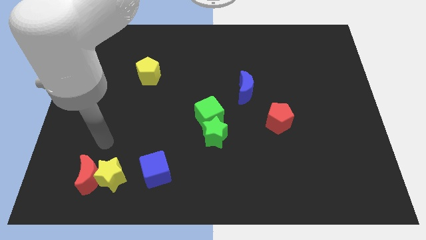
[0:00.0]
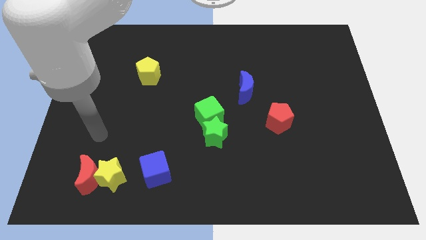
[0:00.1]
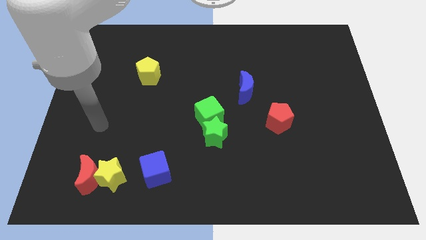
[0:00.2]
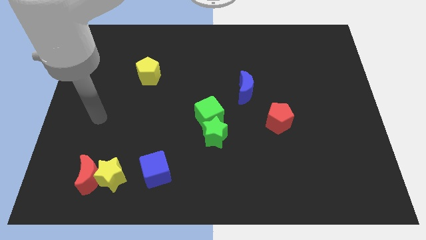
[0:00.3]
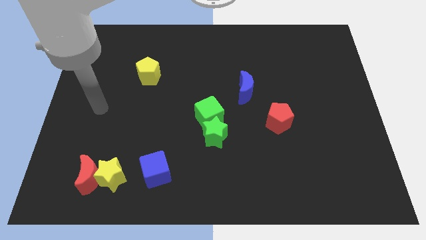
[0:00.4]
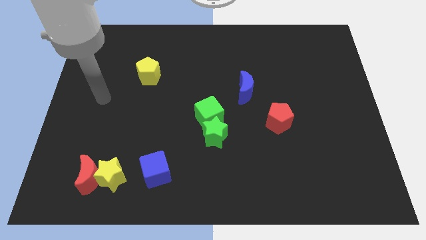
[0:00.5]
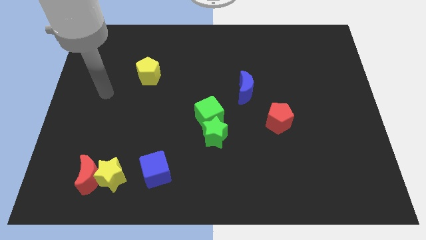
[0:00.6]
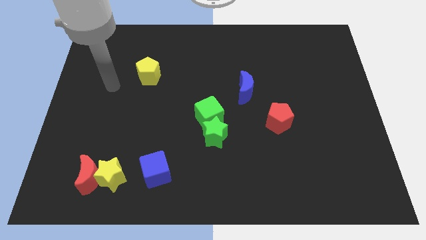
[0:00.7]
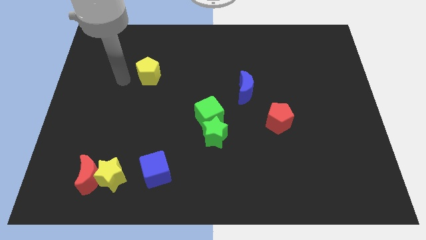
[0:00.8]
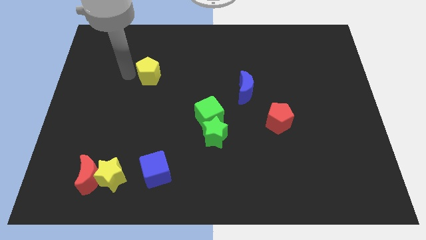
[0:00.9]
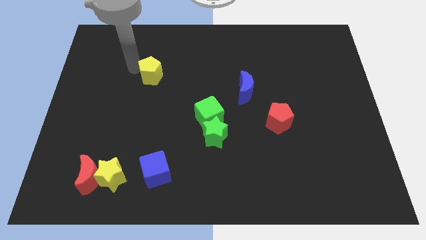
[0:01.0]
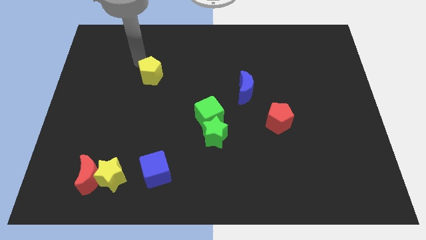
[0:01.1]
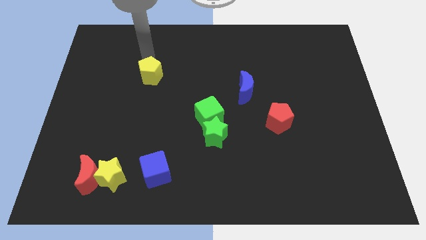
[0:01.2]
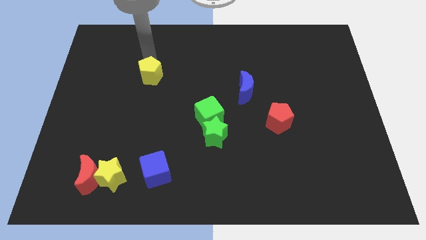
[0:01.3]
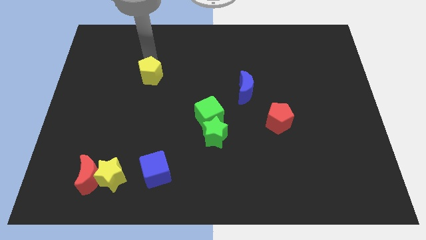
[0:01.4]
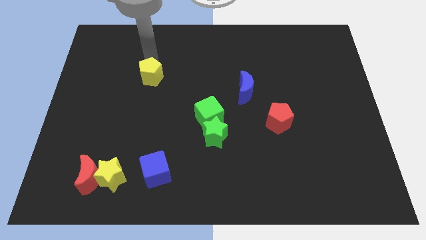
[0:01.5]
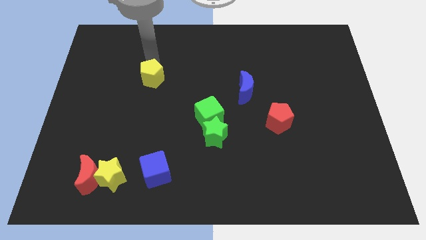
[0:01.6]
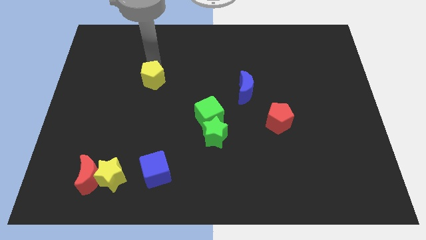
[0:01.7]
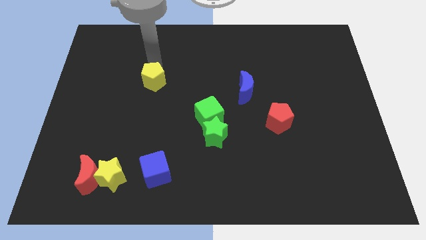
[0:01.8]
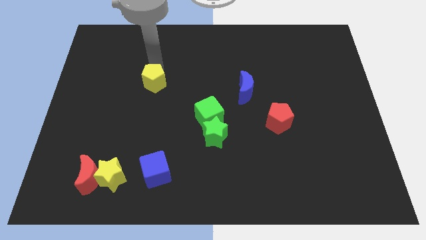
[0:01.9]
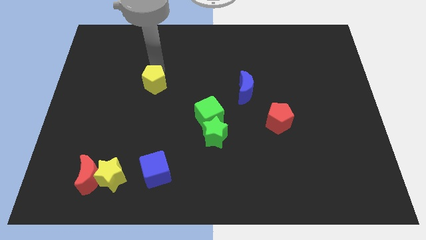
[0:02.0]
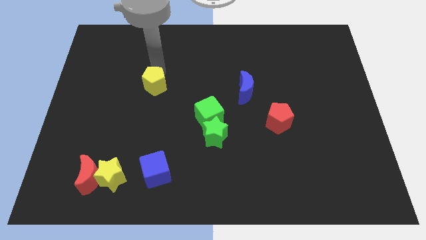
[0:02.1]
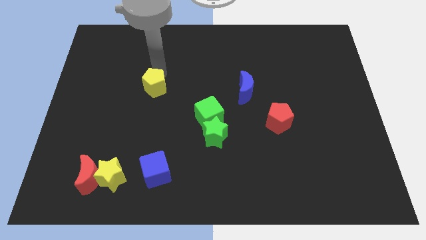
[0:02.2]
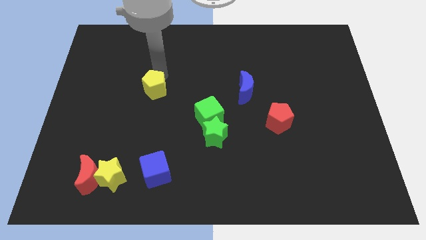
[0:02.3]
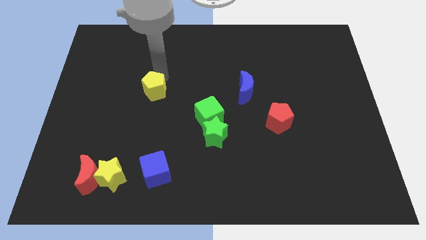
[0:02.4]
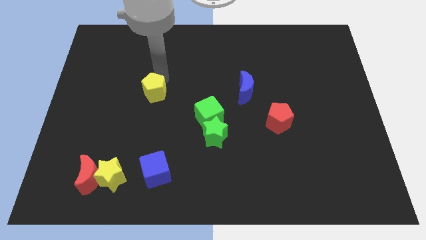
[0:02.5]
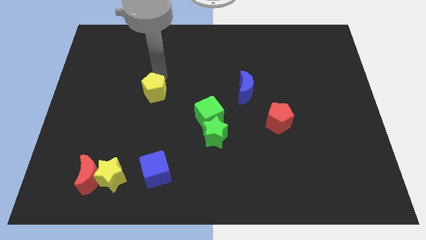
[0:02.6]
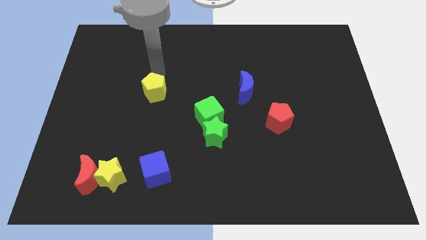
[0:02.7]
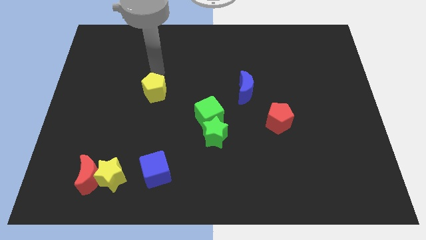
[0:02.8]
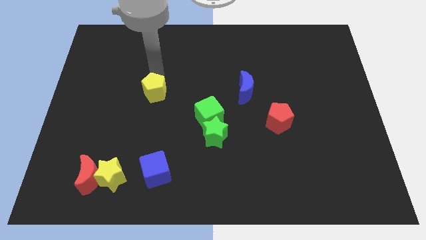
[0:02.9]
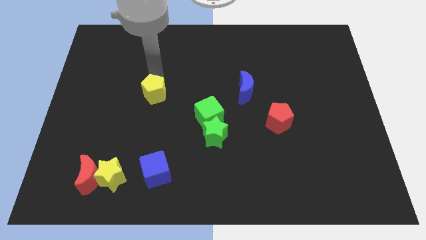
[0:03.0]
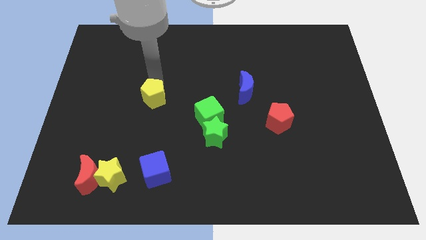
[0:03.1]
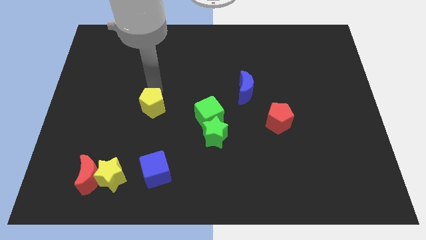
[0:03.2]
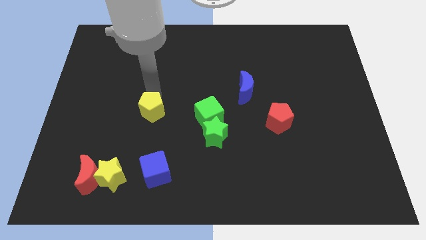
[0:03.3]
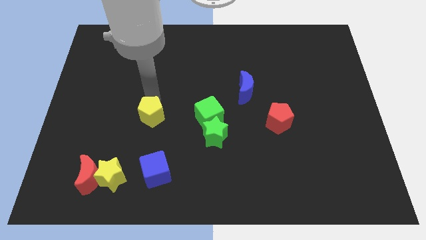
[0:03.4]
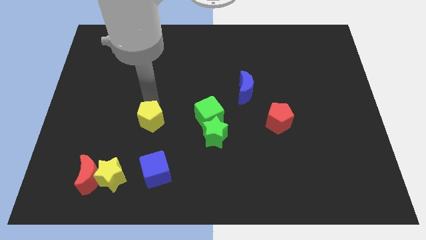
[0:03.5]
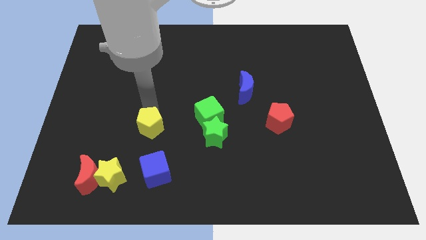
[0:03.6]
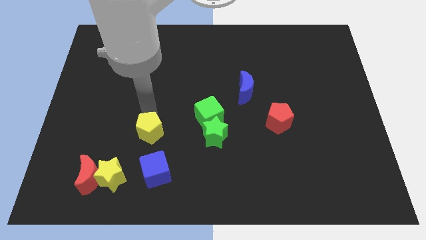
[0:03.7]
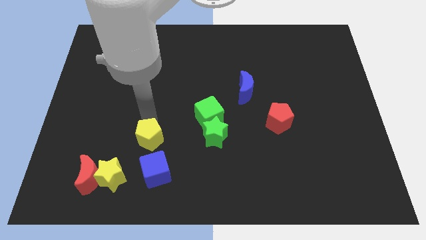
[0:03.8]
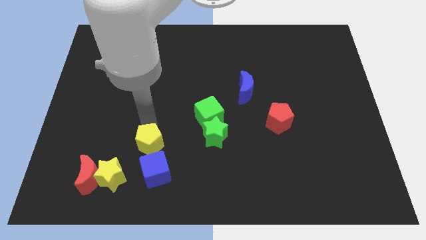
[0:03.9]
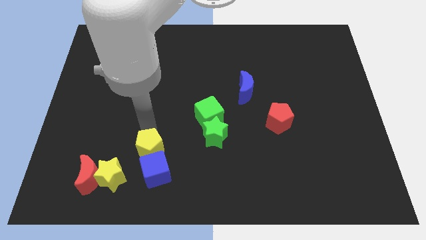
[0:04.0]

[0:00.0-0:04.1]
put the yellow pentagon close to the blue cube

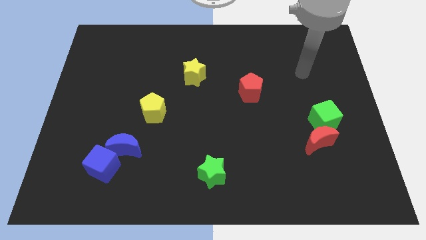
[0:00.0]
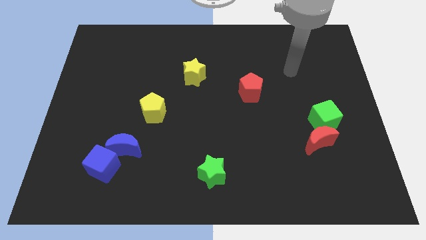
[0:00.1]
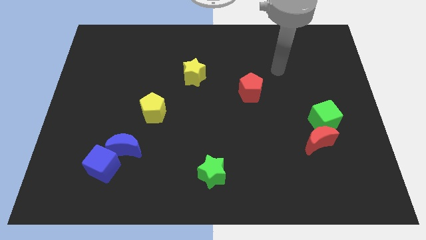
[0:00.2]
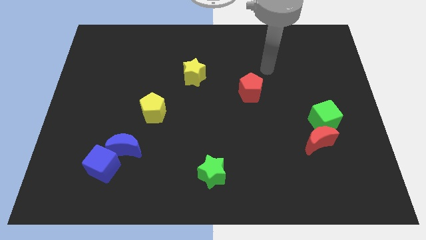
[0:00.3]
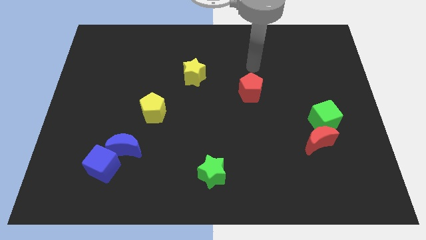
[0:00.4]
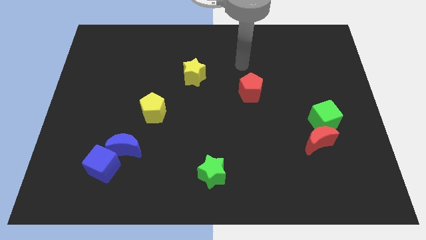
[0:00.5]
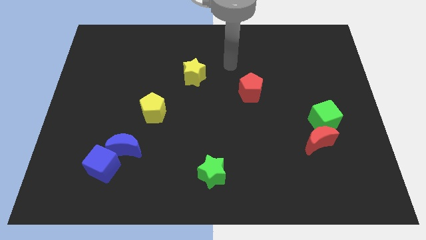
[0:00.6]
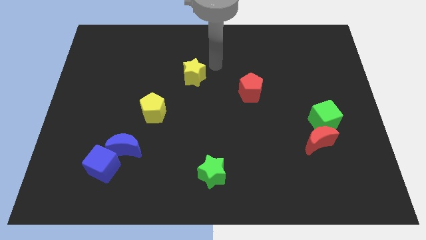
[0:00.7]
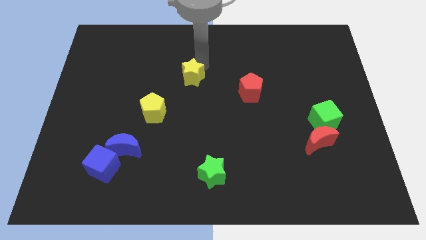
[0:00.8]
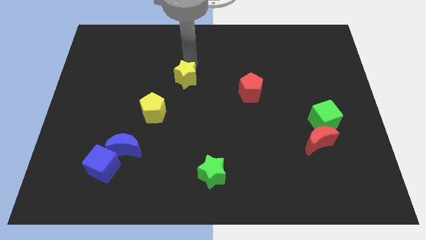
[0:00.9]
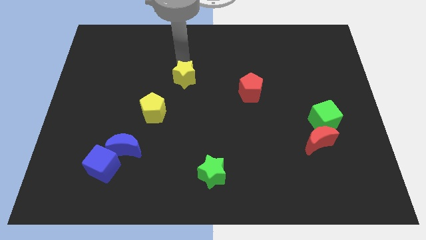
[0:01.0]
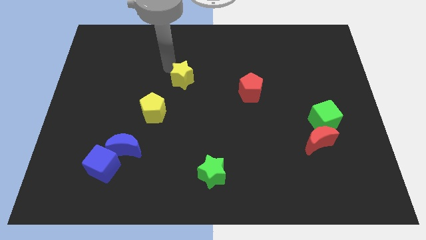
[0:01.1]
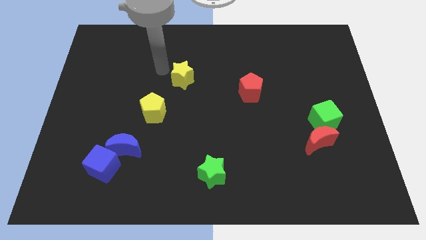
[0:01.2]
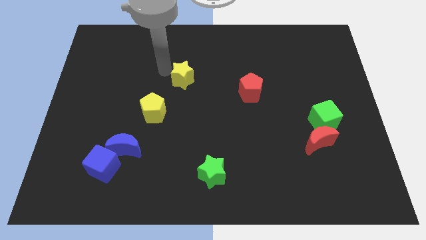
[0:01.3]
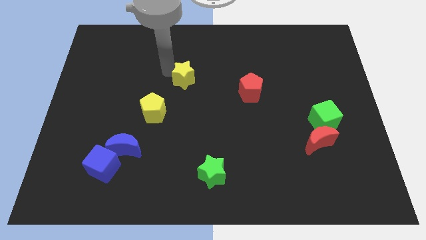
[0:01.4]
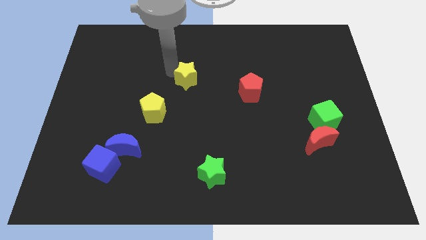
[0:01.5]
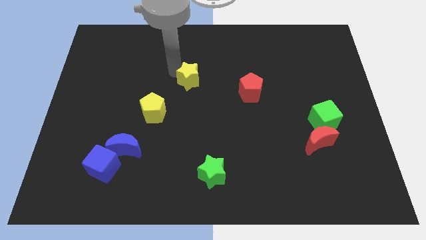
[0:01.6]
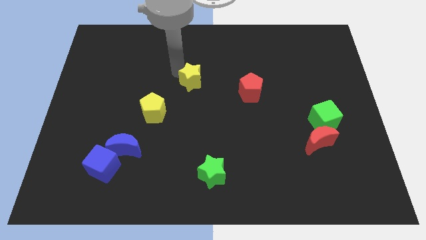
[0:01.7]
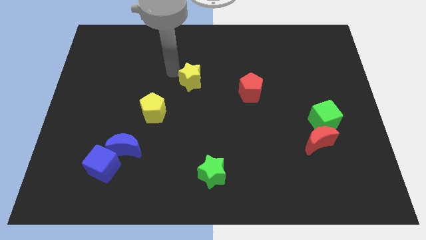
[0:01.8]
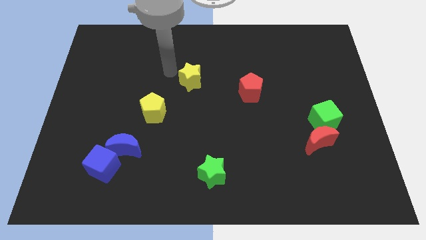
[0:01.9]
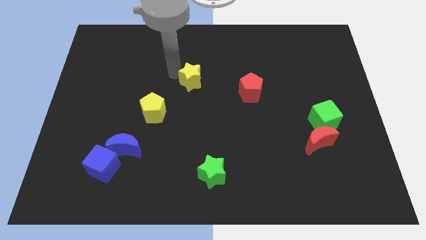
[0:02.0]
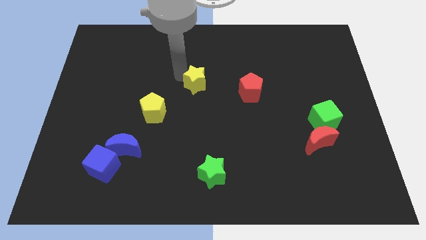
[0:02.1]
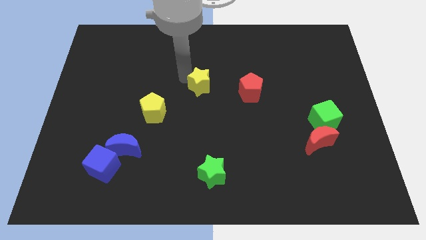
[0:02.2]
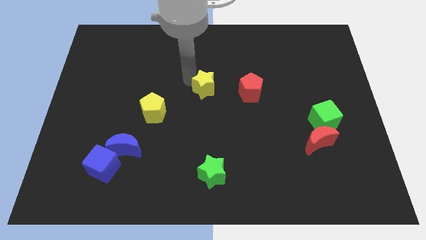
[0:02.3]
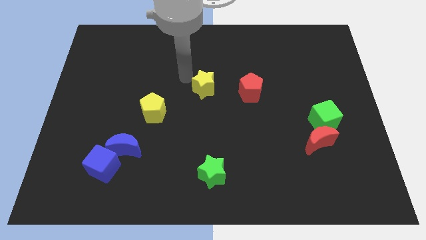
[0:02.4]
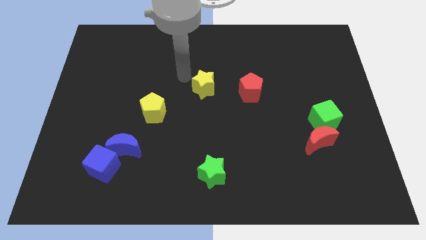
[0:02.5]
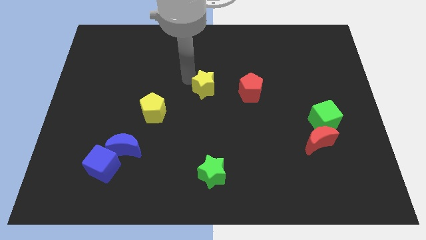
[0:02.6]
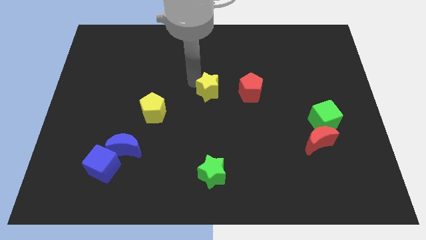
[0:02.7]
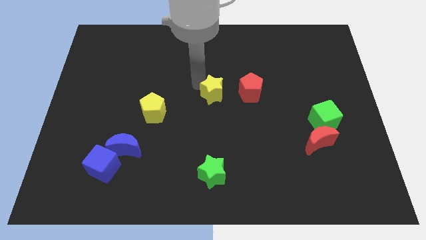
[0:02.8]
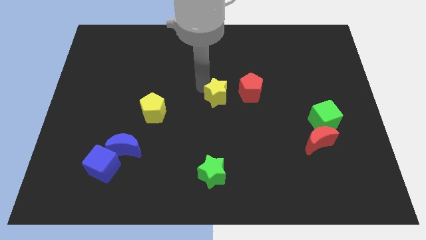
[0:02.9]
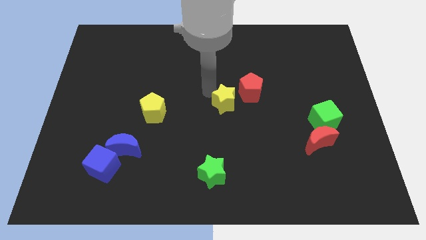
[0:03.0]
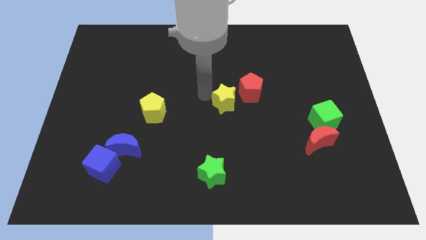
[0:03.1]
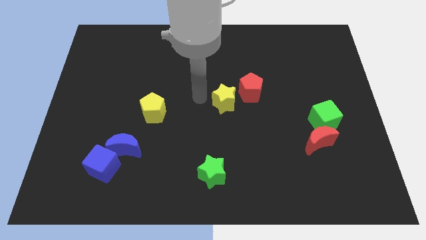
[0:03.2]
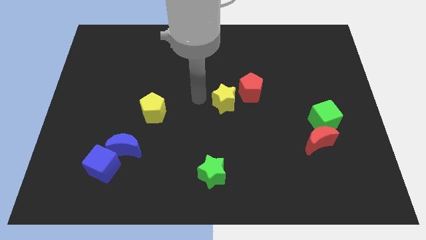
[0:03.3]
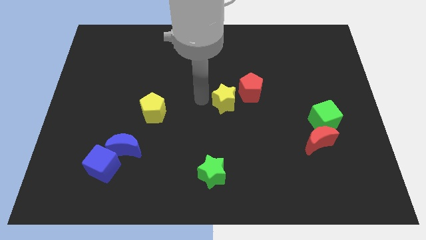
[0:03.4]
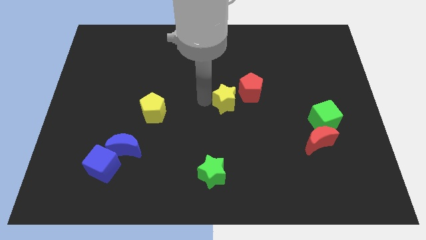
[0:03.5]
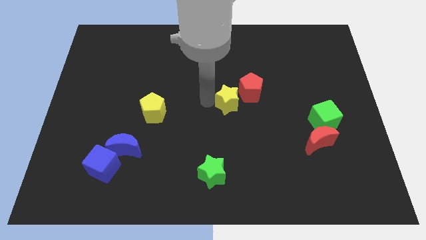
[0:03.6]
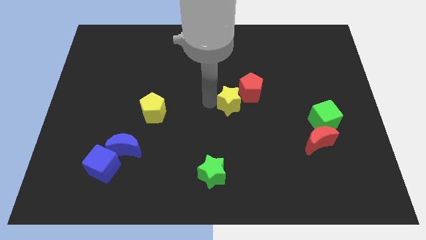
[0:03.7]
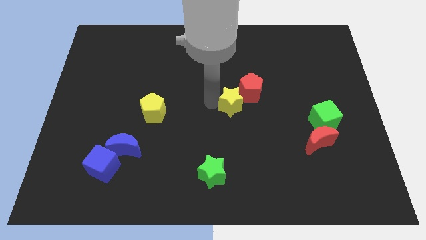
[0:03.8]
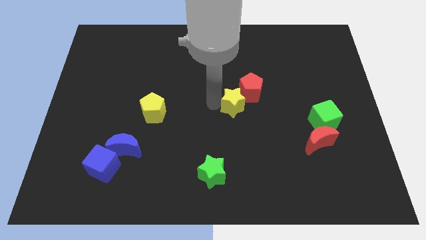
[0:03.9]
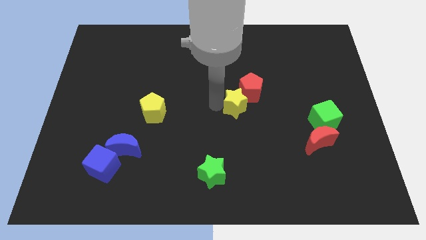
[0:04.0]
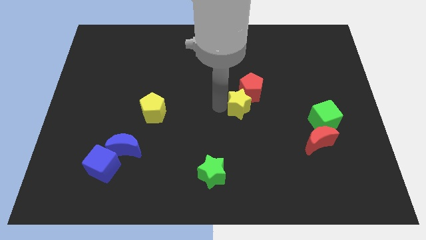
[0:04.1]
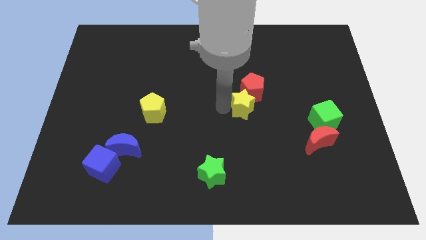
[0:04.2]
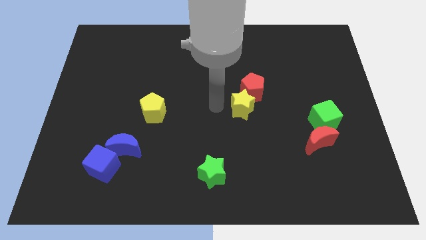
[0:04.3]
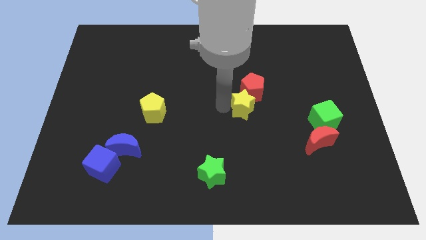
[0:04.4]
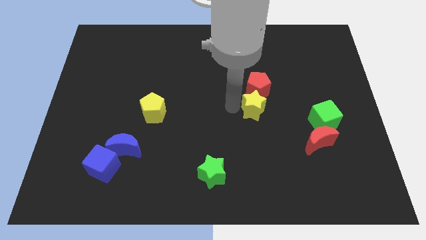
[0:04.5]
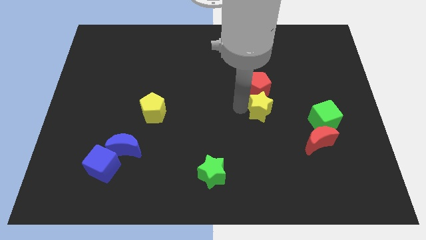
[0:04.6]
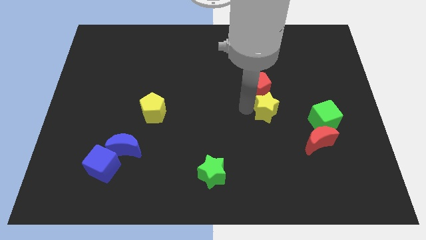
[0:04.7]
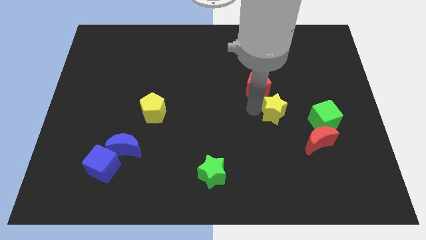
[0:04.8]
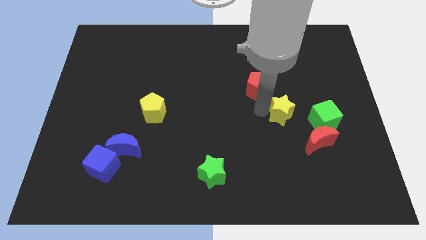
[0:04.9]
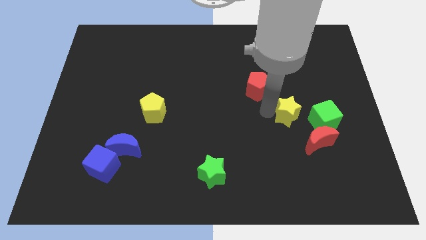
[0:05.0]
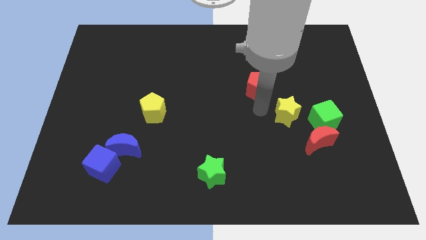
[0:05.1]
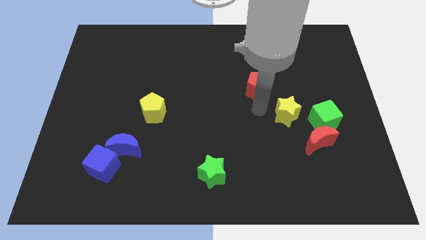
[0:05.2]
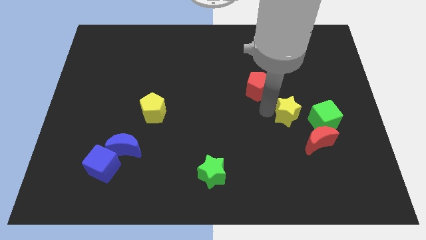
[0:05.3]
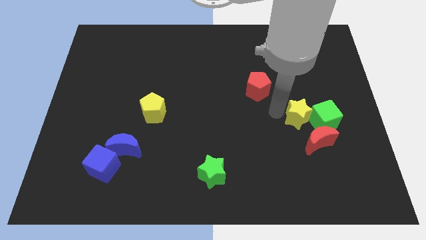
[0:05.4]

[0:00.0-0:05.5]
push the yellow star to the green cube
